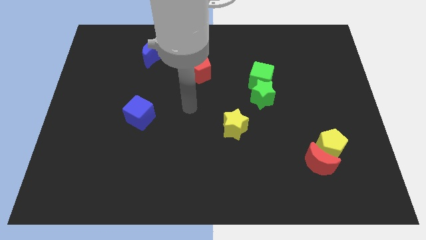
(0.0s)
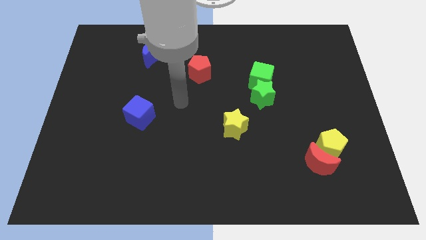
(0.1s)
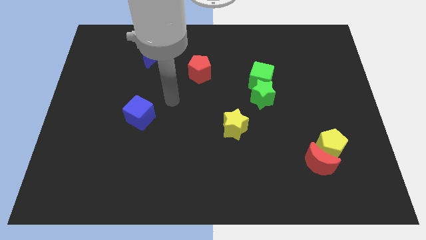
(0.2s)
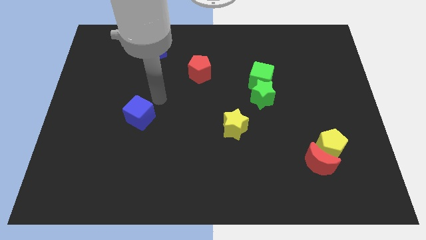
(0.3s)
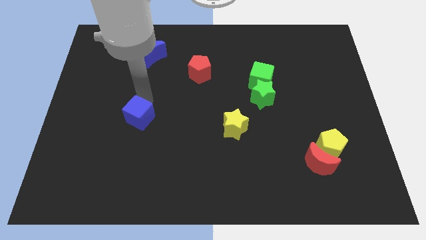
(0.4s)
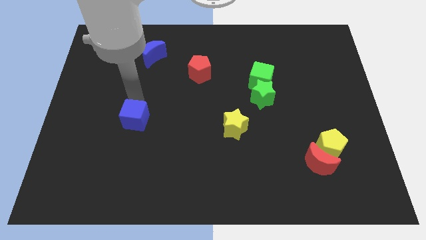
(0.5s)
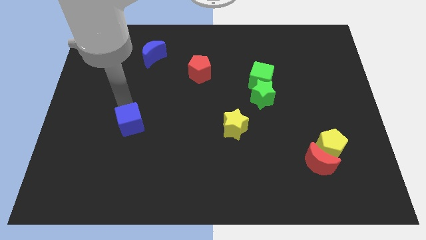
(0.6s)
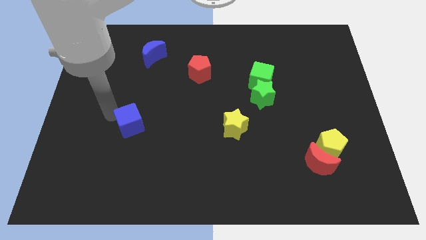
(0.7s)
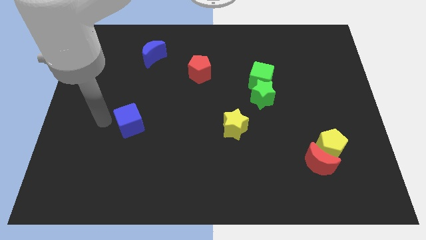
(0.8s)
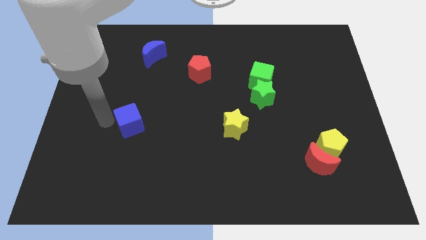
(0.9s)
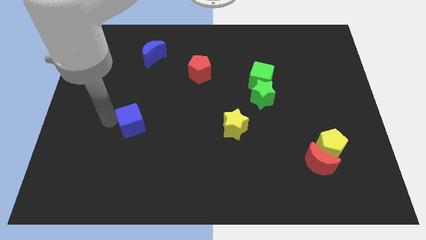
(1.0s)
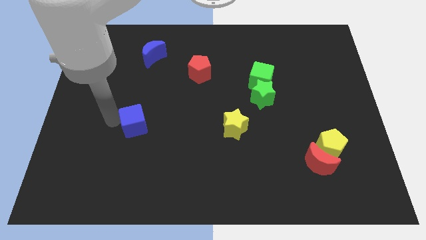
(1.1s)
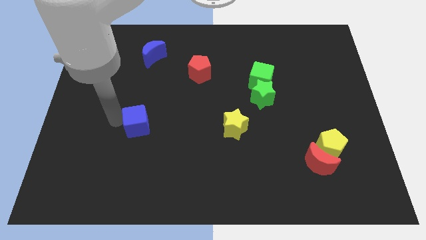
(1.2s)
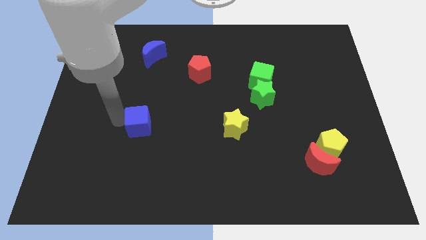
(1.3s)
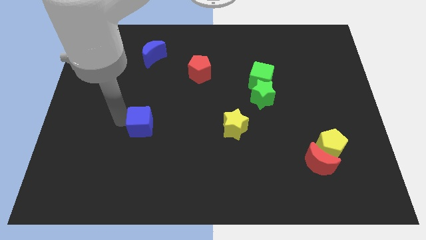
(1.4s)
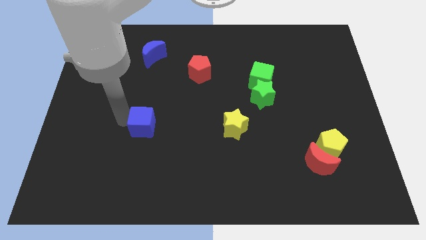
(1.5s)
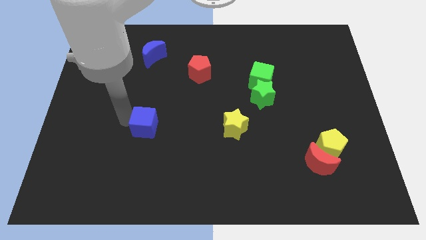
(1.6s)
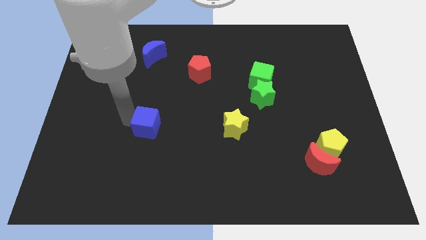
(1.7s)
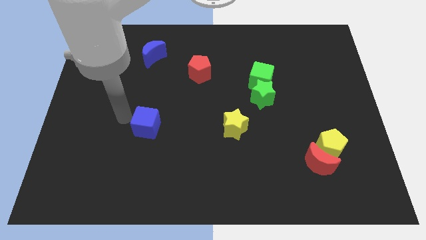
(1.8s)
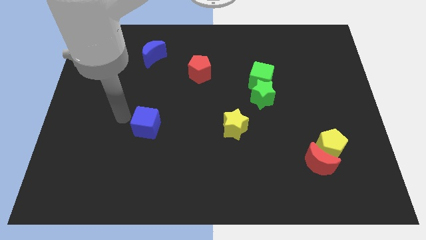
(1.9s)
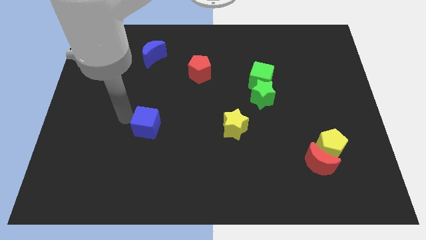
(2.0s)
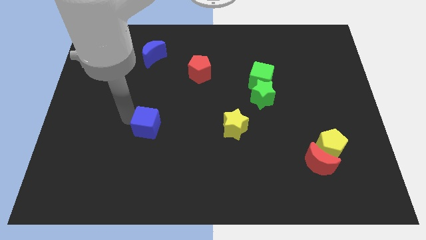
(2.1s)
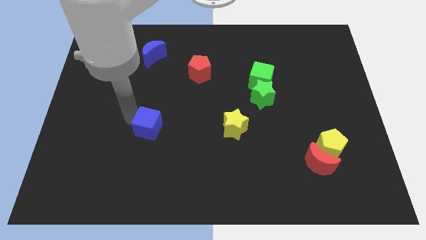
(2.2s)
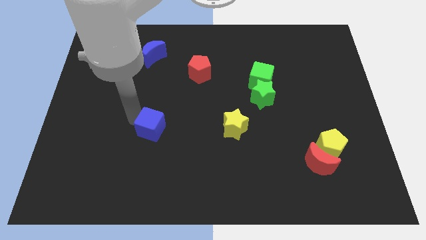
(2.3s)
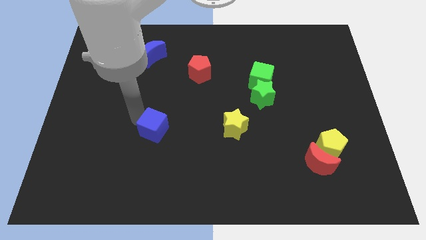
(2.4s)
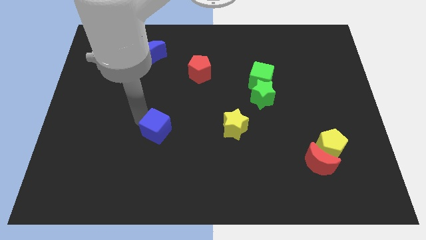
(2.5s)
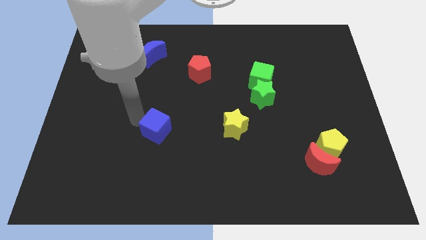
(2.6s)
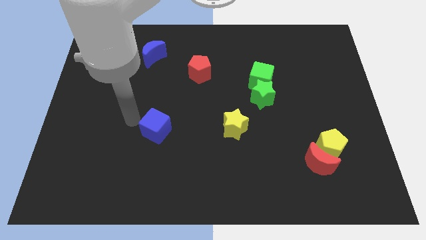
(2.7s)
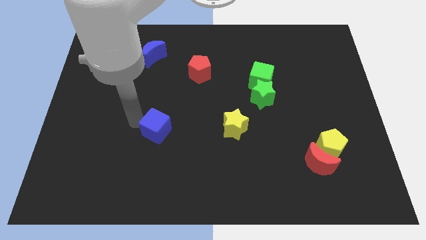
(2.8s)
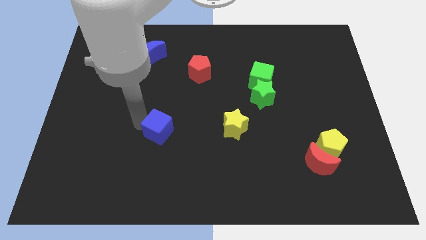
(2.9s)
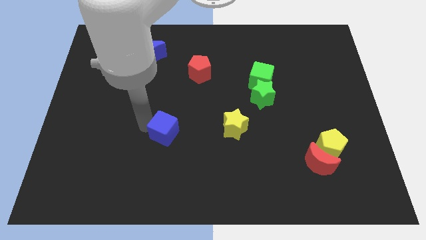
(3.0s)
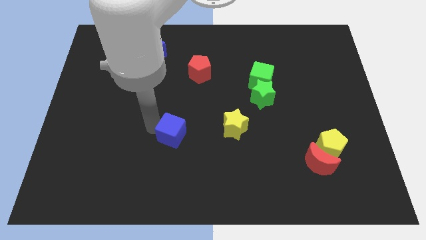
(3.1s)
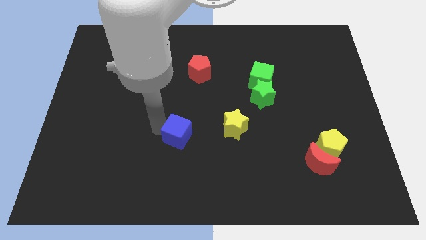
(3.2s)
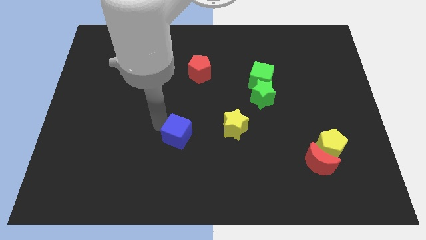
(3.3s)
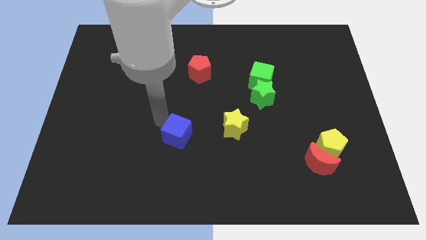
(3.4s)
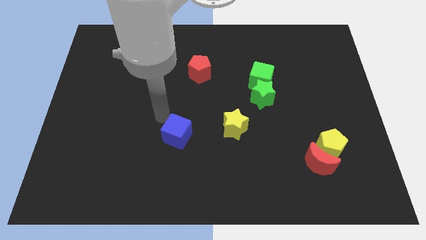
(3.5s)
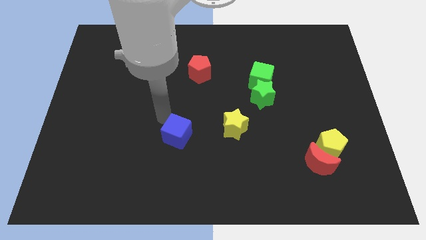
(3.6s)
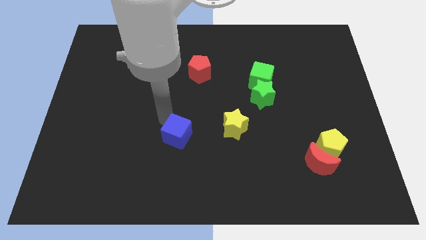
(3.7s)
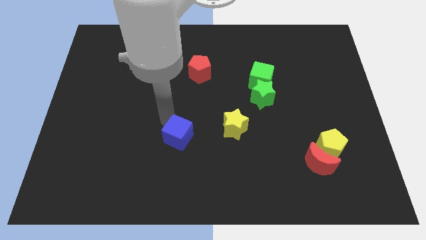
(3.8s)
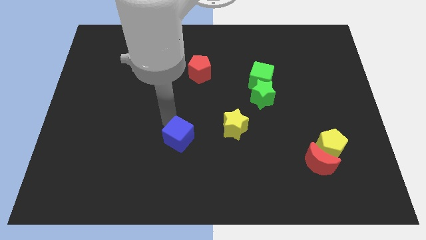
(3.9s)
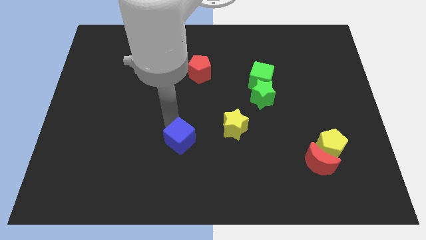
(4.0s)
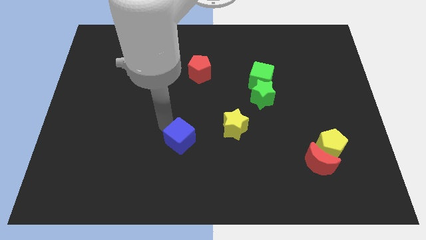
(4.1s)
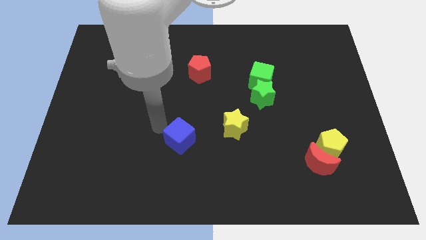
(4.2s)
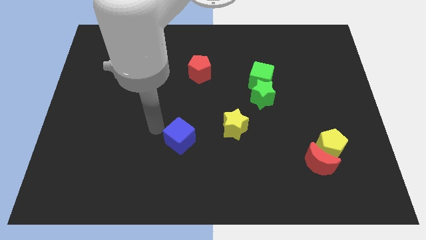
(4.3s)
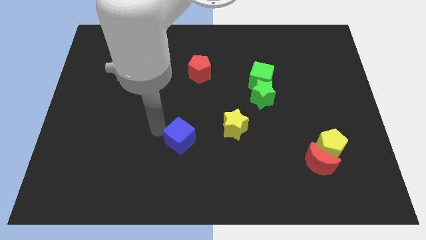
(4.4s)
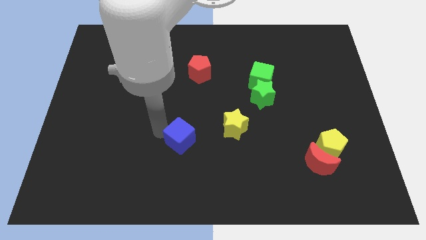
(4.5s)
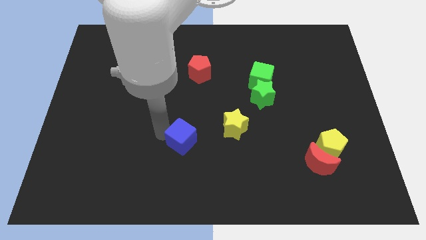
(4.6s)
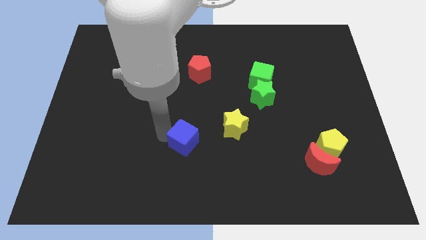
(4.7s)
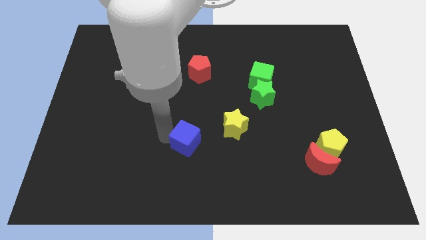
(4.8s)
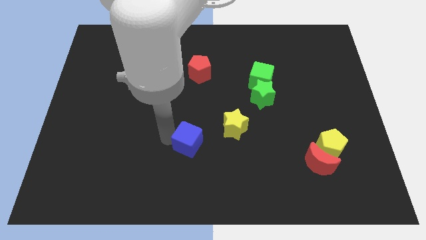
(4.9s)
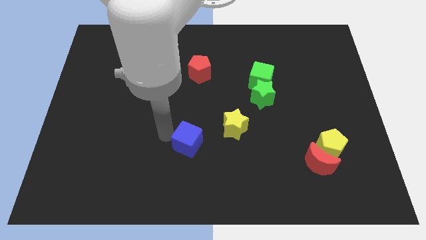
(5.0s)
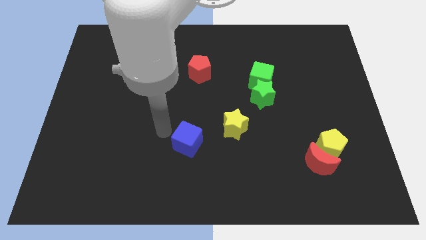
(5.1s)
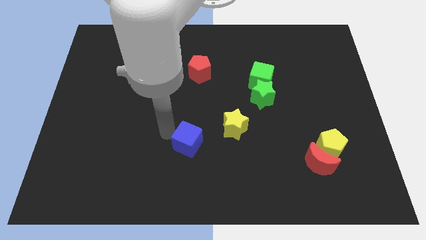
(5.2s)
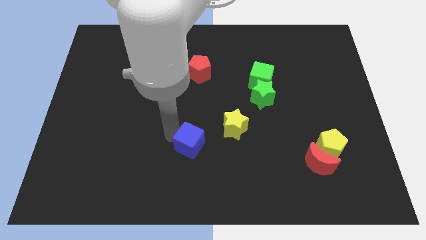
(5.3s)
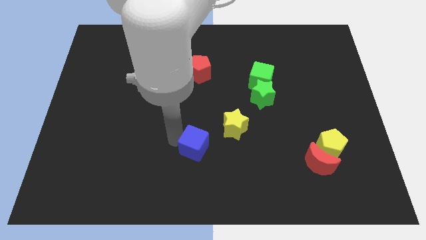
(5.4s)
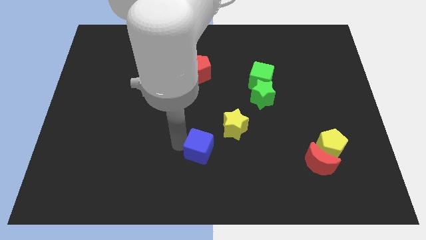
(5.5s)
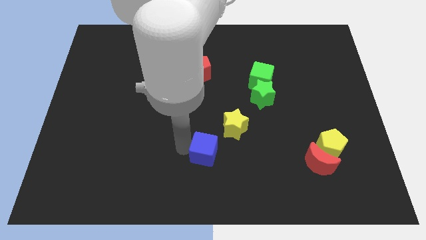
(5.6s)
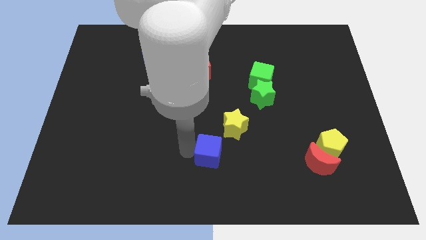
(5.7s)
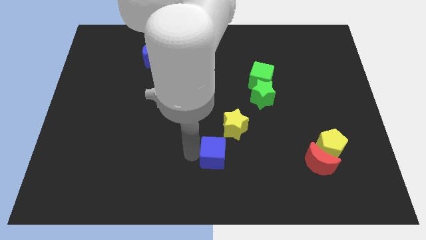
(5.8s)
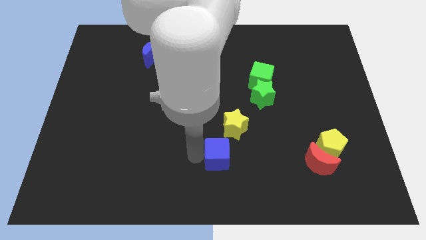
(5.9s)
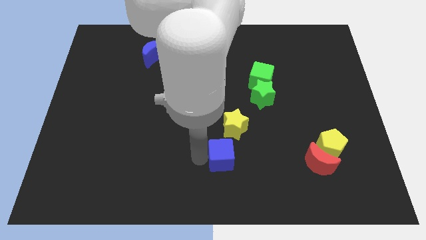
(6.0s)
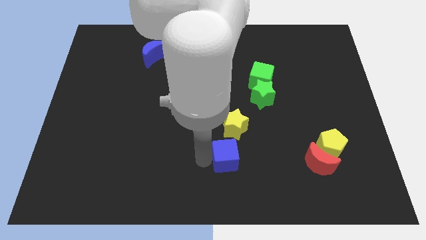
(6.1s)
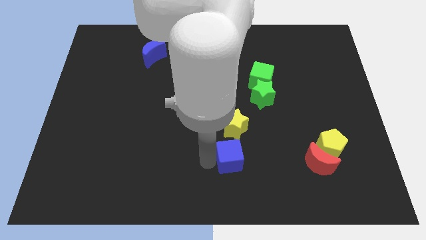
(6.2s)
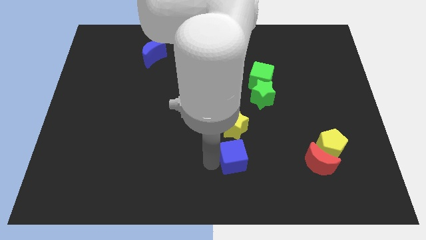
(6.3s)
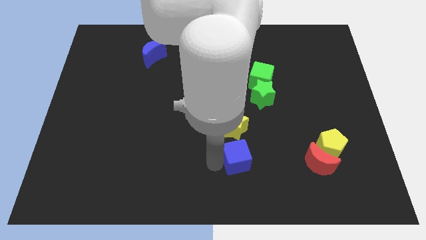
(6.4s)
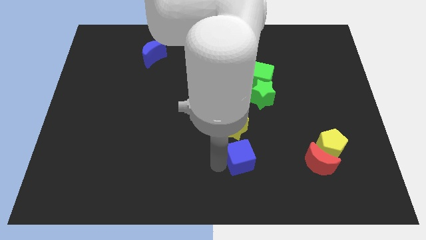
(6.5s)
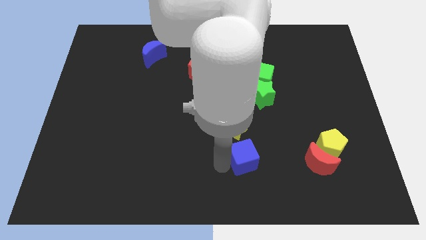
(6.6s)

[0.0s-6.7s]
slide the blue cube diagonally down and to the right of the yellow star
